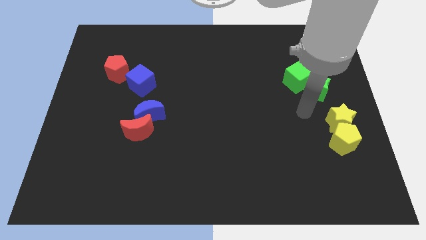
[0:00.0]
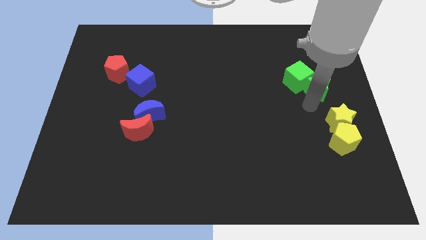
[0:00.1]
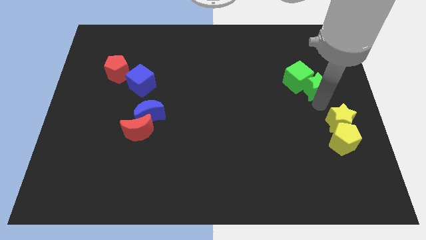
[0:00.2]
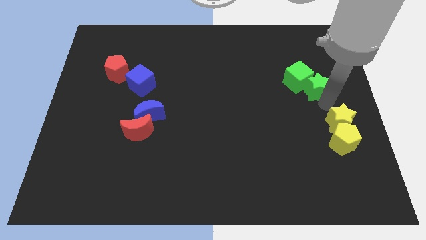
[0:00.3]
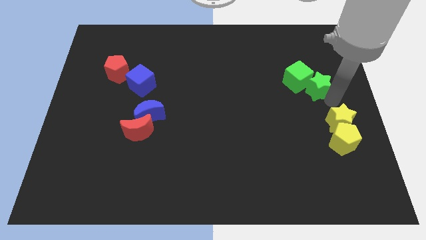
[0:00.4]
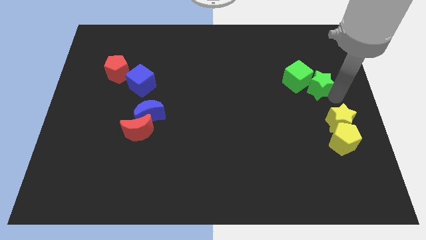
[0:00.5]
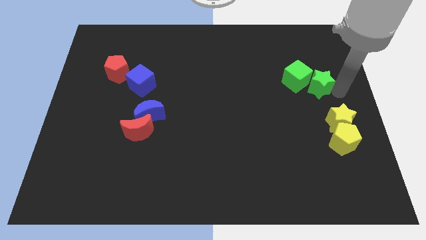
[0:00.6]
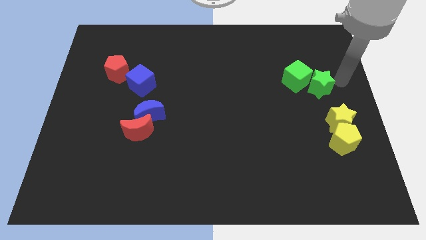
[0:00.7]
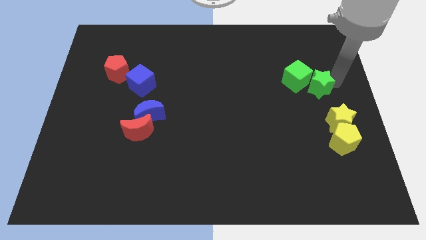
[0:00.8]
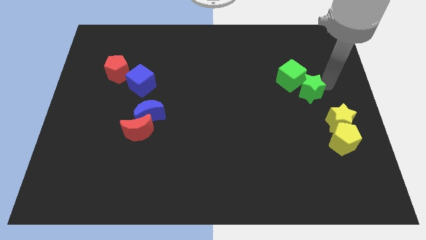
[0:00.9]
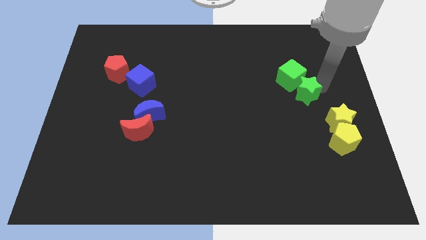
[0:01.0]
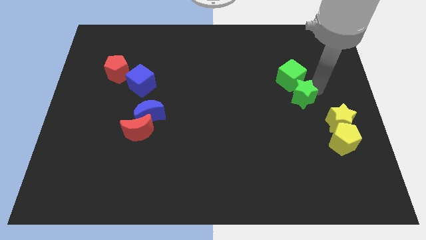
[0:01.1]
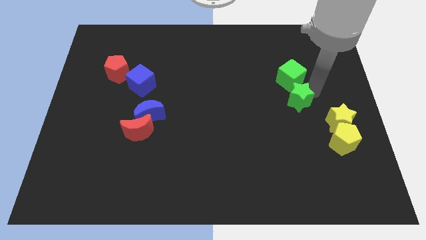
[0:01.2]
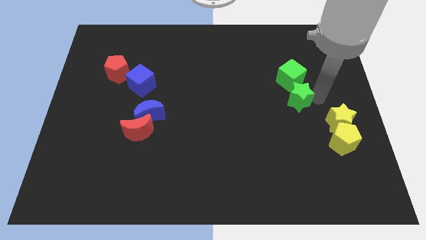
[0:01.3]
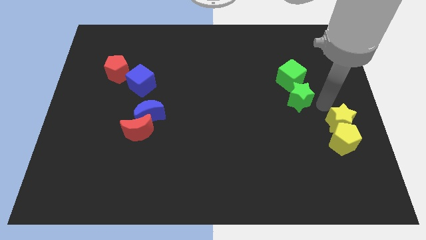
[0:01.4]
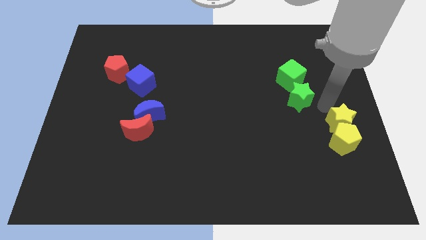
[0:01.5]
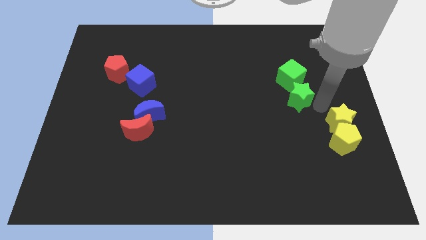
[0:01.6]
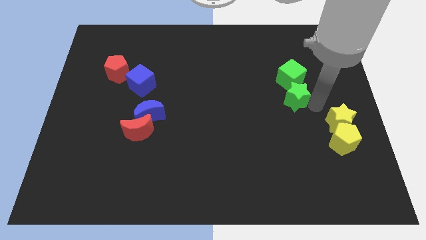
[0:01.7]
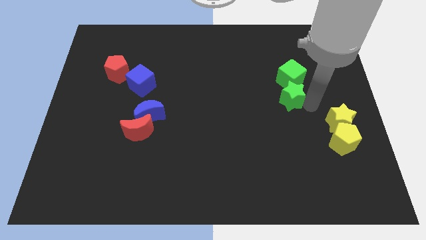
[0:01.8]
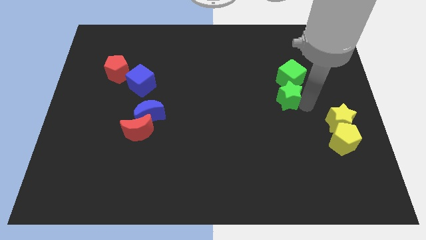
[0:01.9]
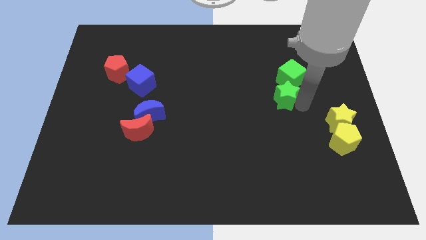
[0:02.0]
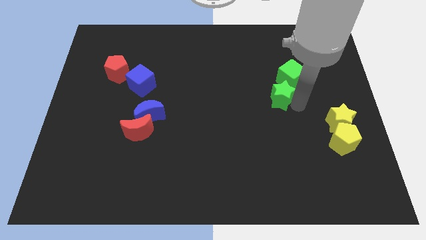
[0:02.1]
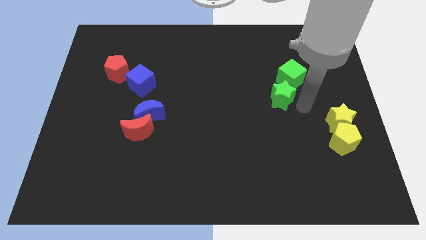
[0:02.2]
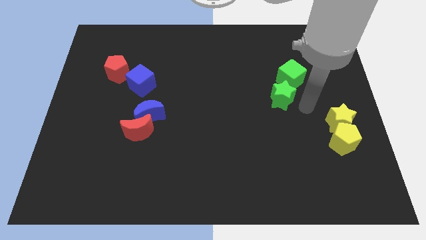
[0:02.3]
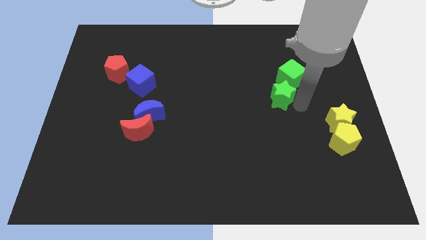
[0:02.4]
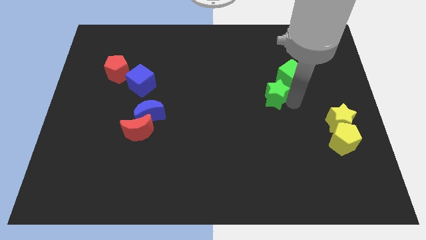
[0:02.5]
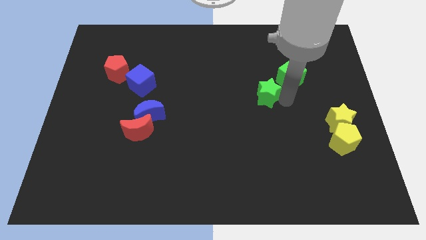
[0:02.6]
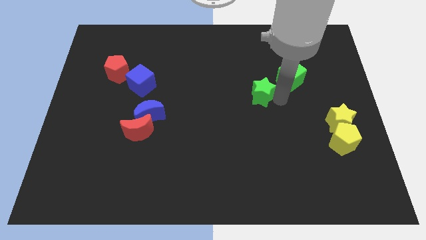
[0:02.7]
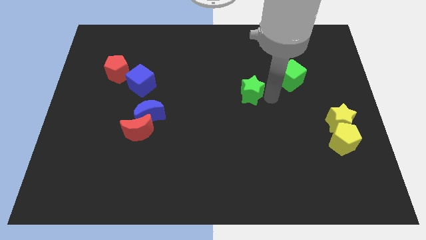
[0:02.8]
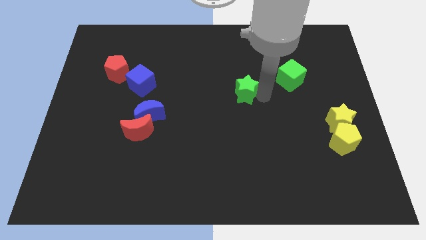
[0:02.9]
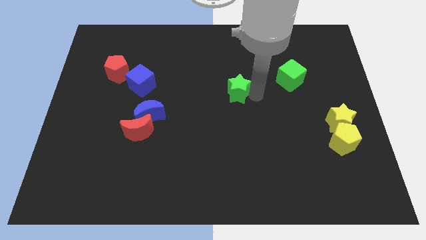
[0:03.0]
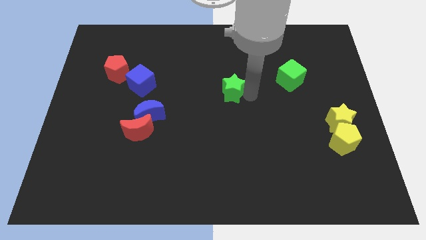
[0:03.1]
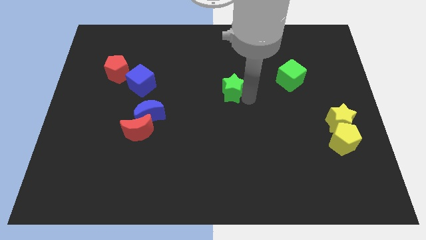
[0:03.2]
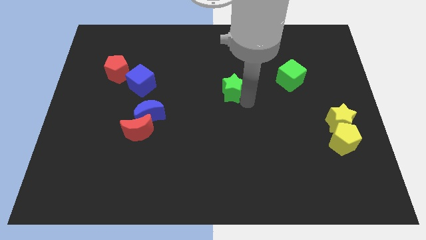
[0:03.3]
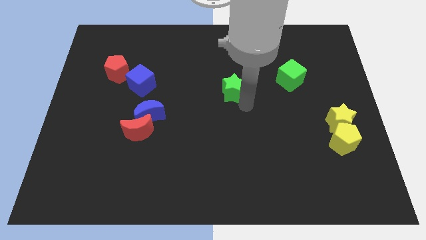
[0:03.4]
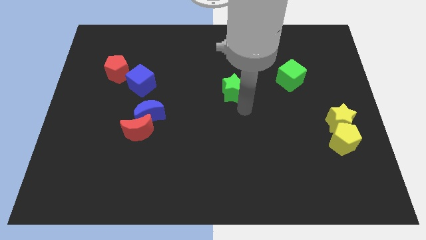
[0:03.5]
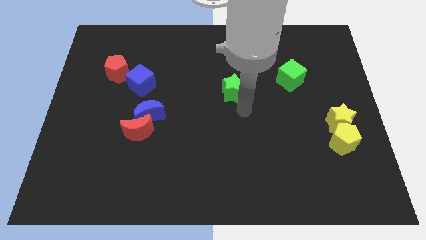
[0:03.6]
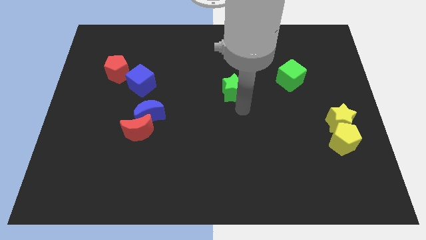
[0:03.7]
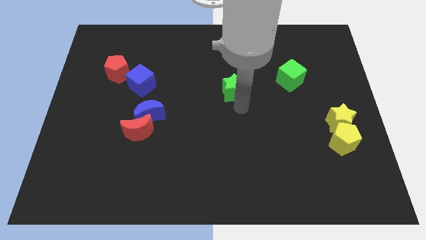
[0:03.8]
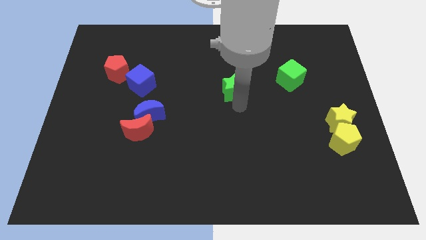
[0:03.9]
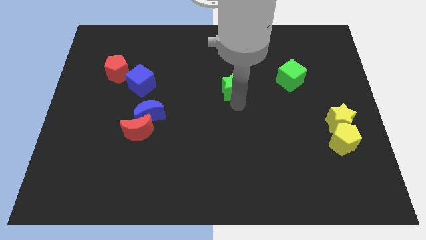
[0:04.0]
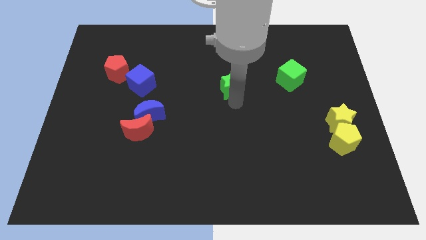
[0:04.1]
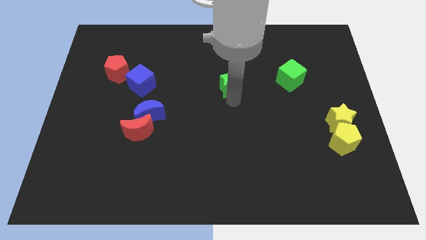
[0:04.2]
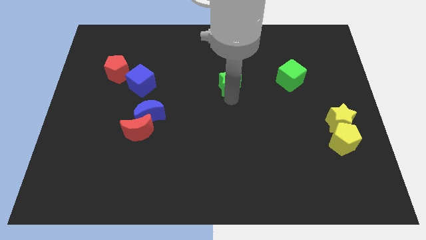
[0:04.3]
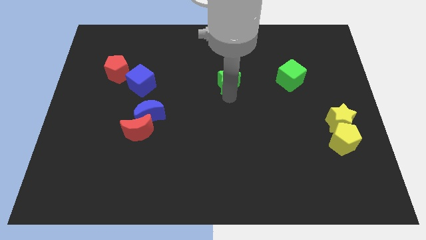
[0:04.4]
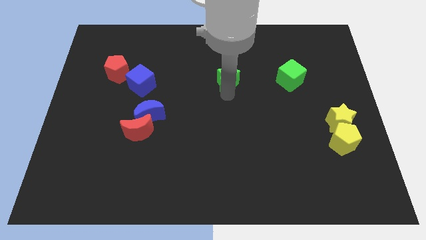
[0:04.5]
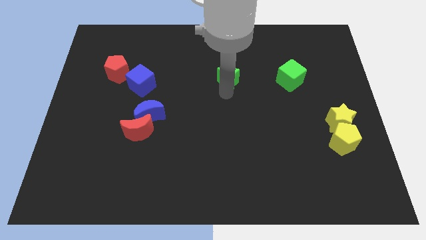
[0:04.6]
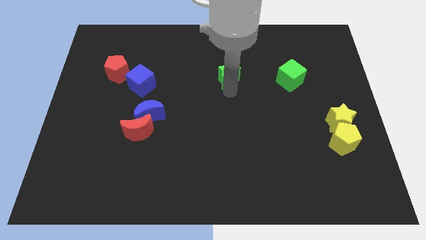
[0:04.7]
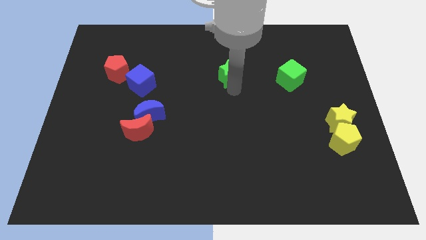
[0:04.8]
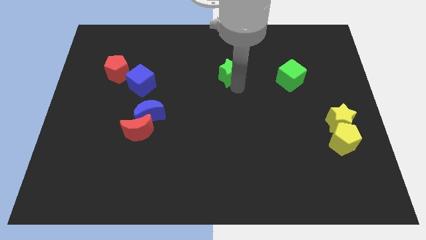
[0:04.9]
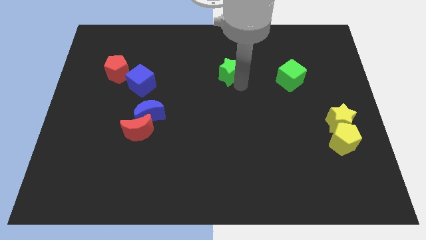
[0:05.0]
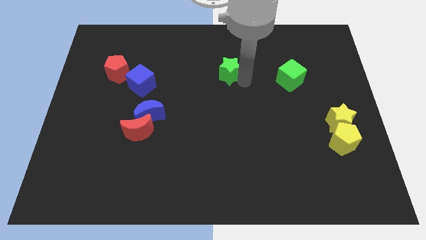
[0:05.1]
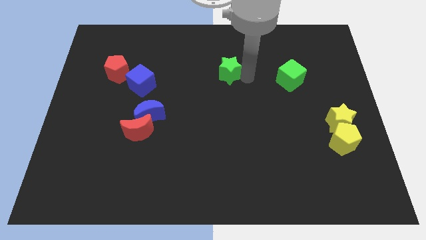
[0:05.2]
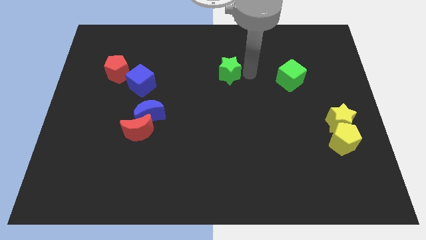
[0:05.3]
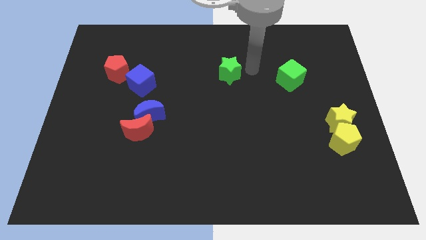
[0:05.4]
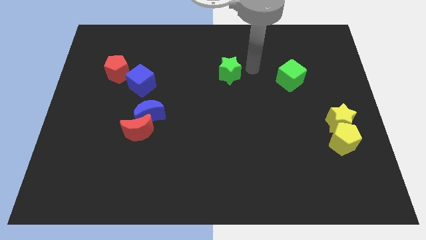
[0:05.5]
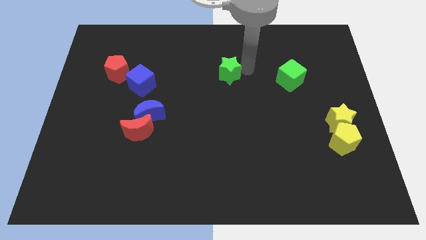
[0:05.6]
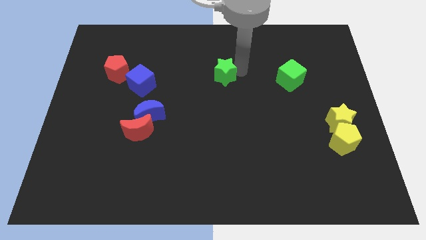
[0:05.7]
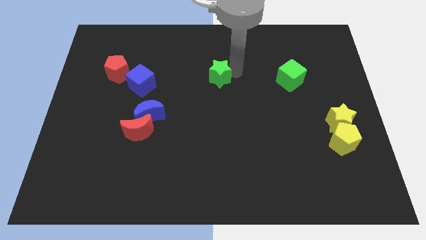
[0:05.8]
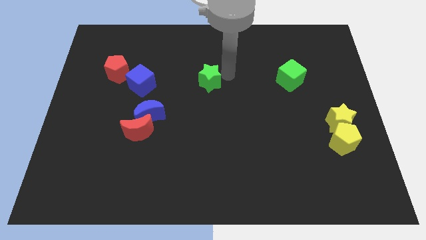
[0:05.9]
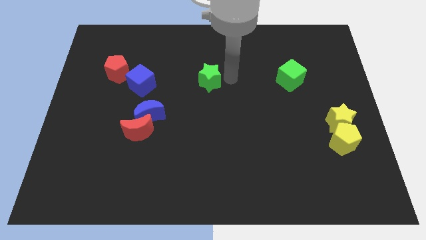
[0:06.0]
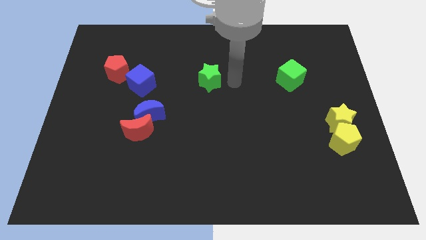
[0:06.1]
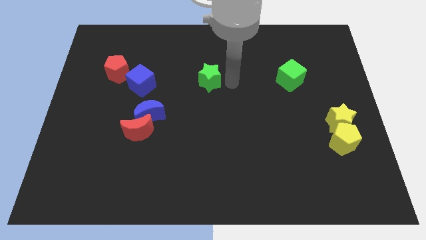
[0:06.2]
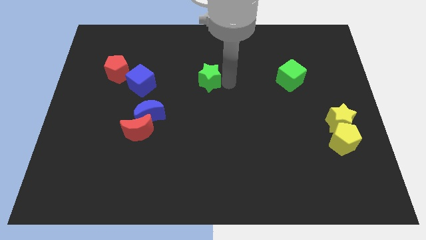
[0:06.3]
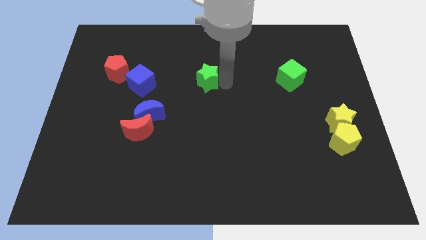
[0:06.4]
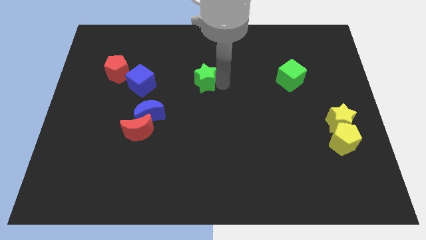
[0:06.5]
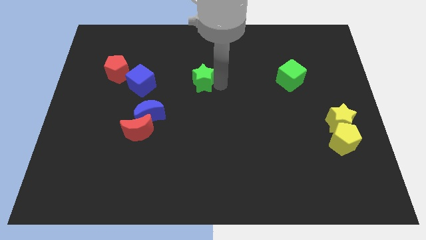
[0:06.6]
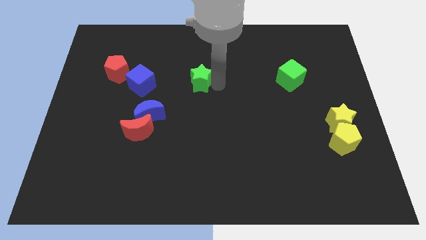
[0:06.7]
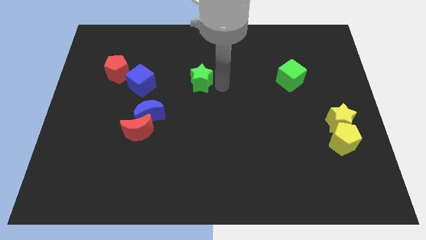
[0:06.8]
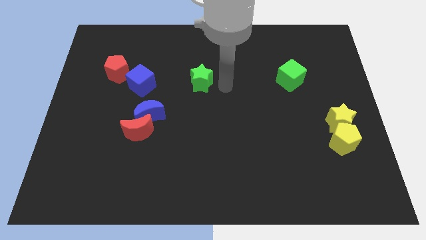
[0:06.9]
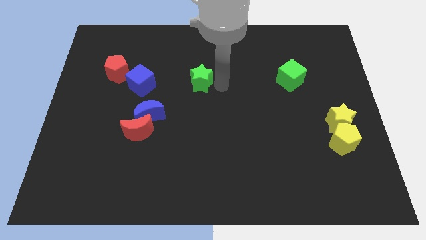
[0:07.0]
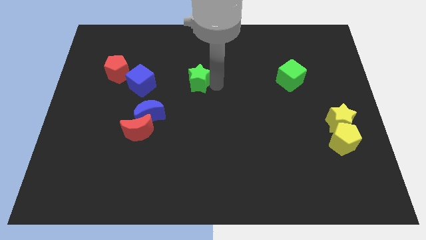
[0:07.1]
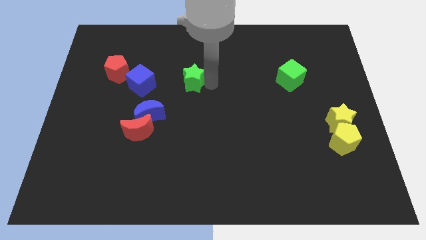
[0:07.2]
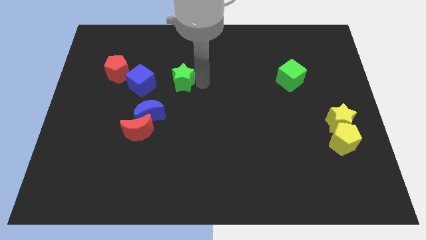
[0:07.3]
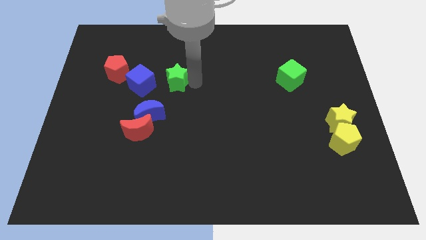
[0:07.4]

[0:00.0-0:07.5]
move the green star to the right side of the red pentagon
